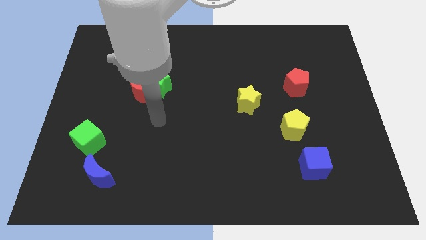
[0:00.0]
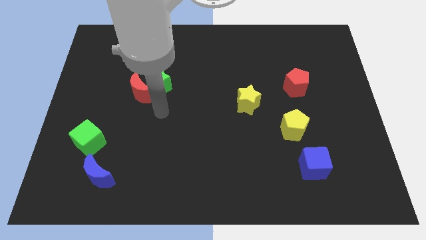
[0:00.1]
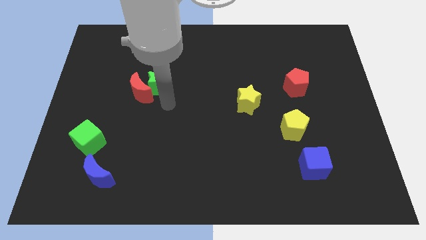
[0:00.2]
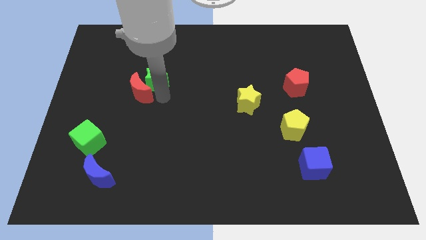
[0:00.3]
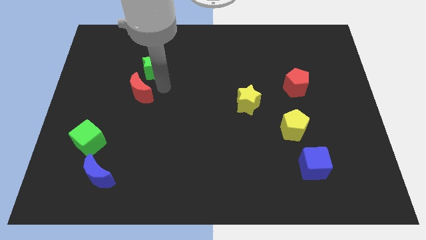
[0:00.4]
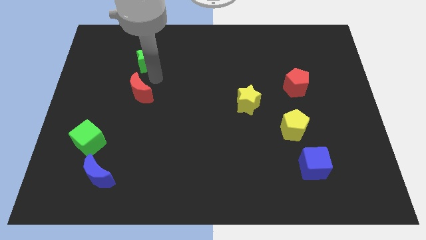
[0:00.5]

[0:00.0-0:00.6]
separate the red moon from the green star

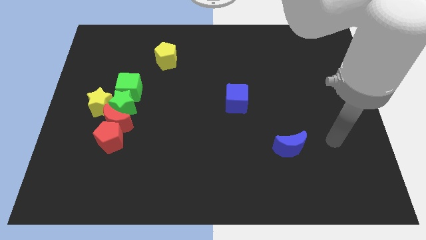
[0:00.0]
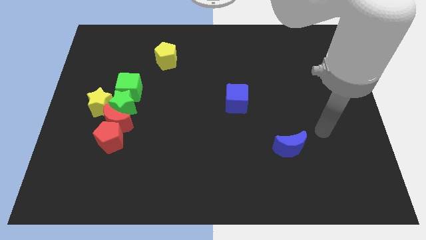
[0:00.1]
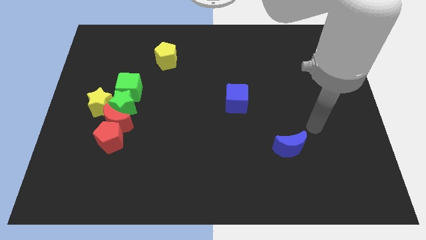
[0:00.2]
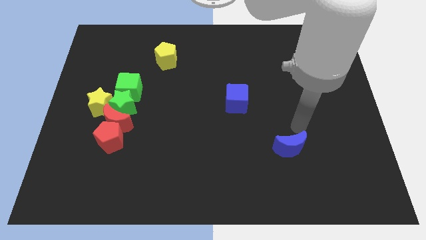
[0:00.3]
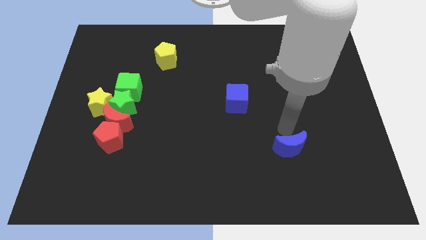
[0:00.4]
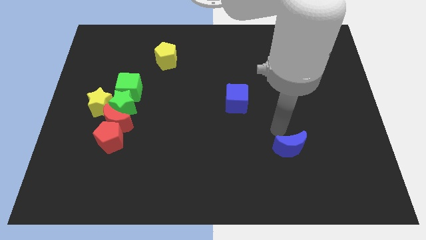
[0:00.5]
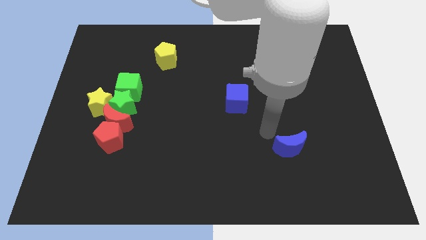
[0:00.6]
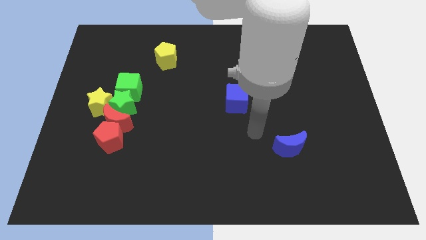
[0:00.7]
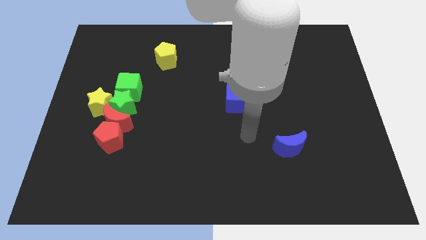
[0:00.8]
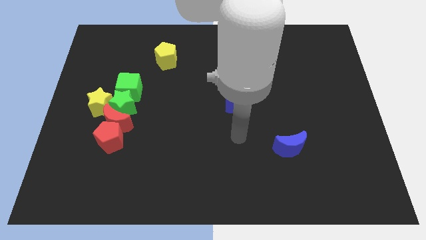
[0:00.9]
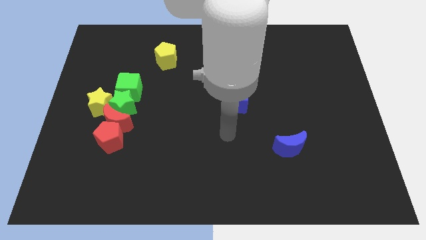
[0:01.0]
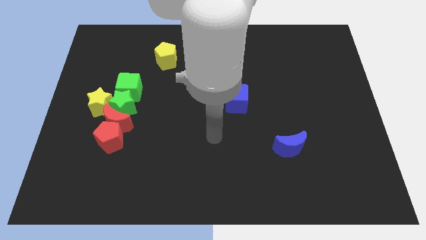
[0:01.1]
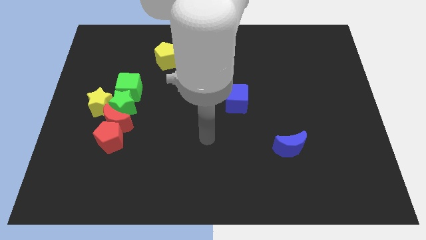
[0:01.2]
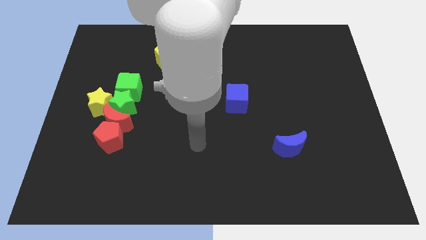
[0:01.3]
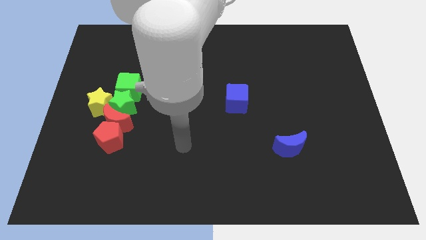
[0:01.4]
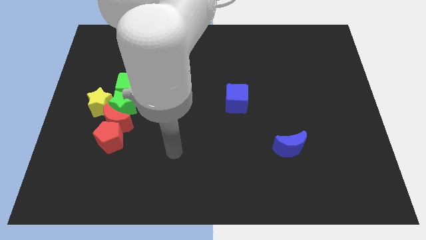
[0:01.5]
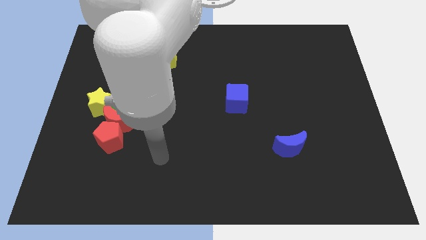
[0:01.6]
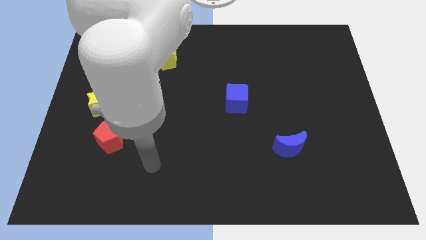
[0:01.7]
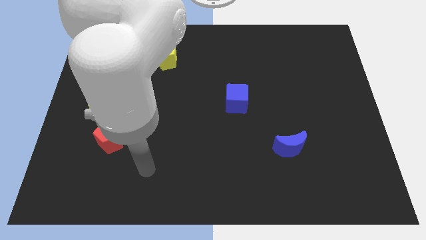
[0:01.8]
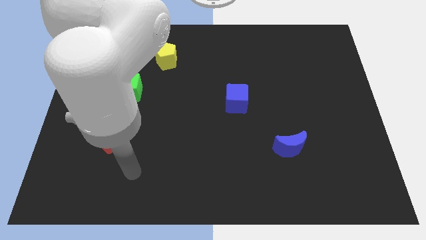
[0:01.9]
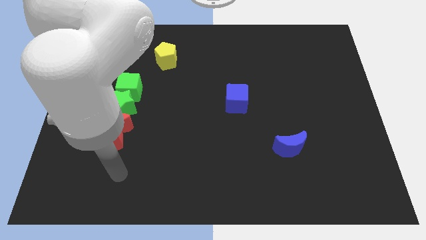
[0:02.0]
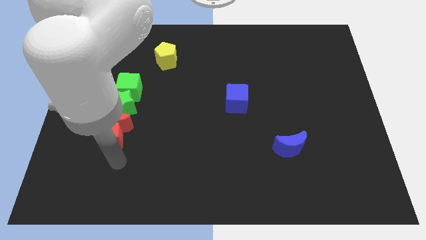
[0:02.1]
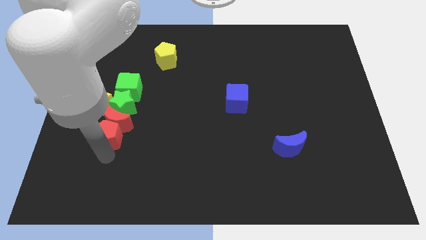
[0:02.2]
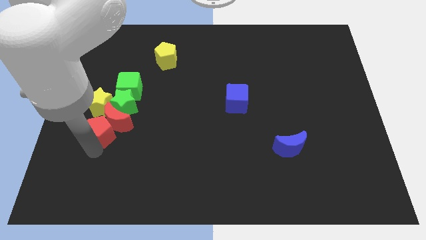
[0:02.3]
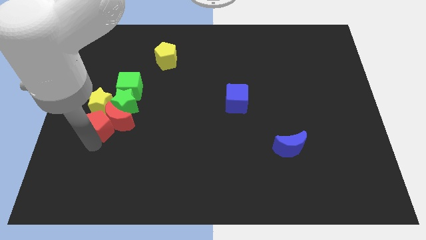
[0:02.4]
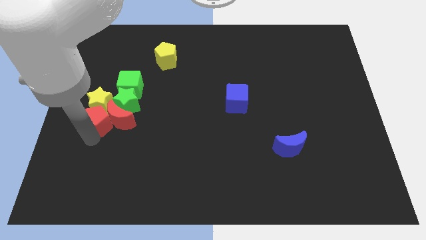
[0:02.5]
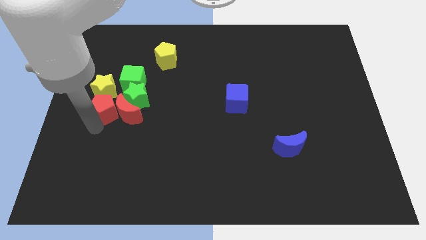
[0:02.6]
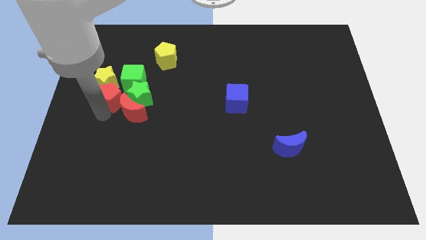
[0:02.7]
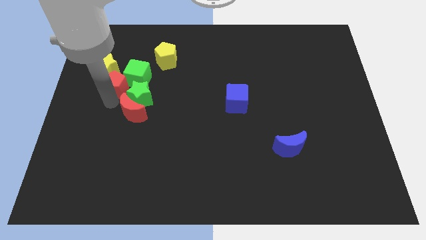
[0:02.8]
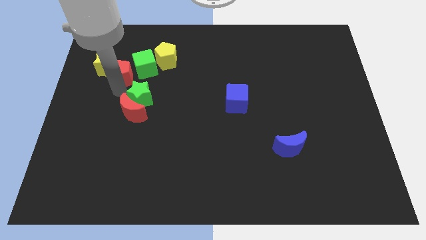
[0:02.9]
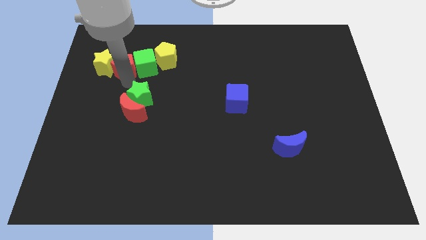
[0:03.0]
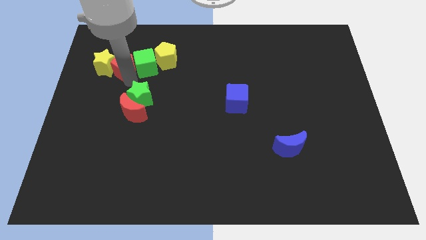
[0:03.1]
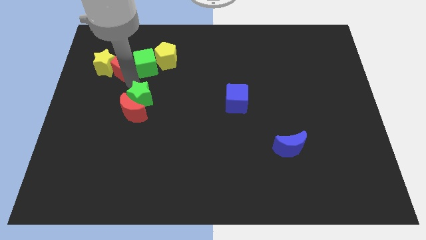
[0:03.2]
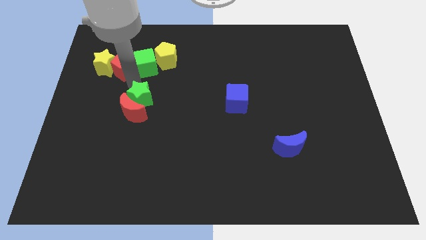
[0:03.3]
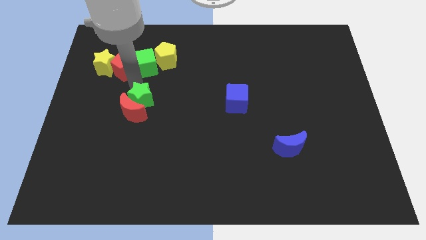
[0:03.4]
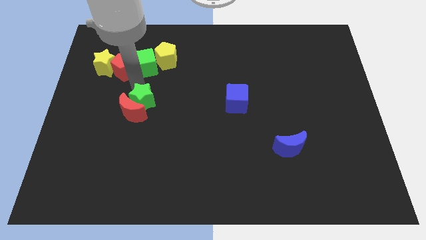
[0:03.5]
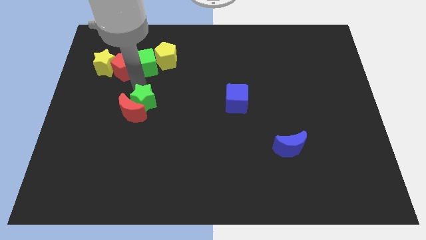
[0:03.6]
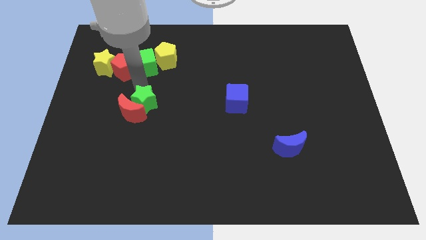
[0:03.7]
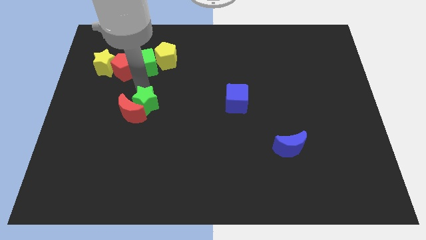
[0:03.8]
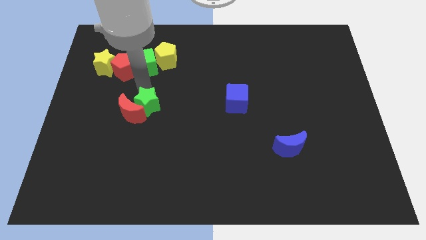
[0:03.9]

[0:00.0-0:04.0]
move the green star away from the group of blocks

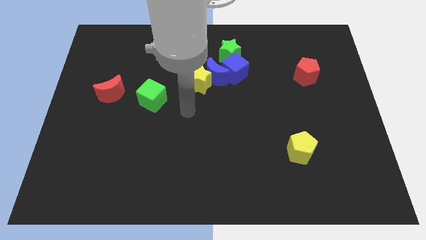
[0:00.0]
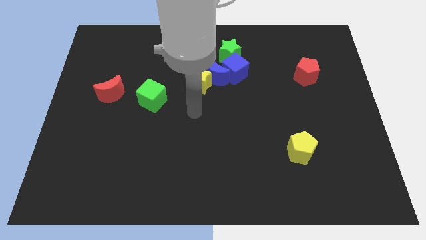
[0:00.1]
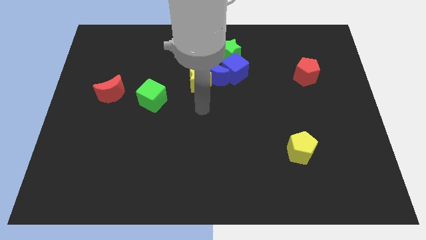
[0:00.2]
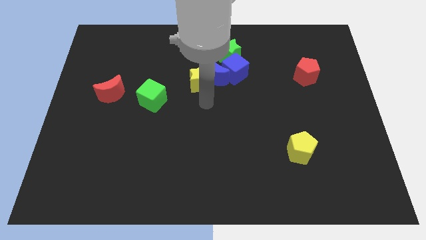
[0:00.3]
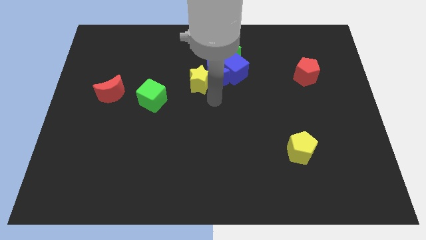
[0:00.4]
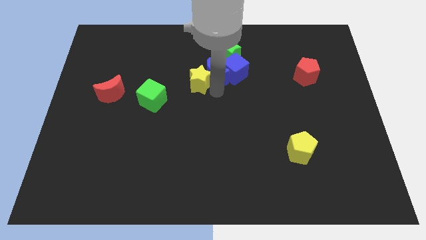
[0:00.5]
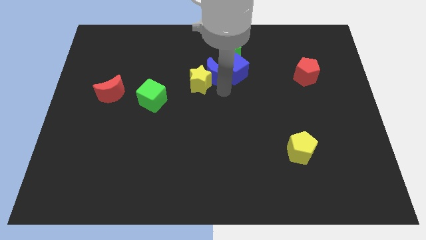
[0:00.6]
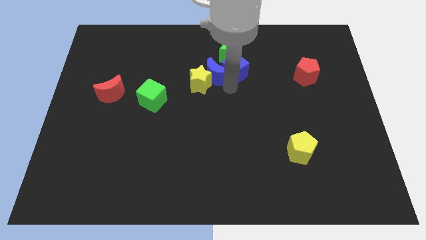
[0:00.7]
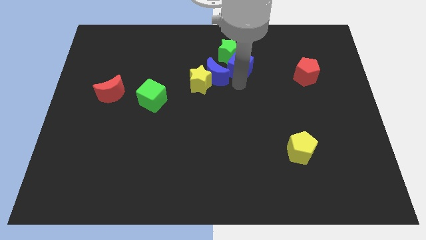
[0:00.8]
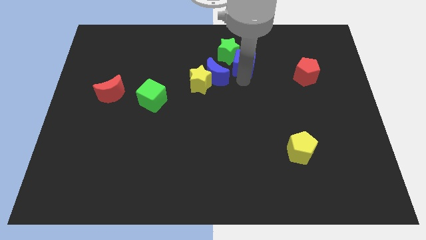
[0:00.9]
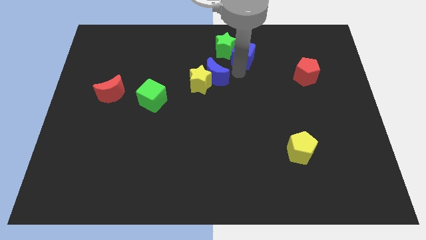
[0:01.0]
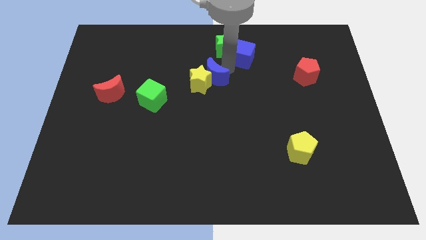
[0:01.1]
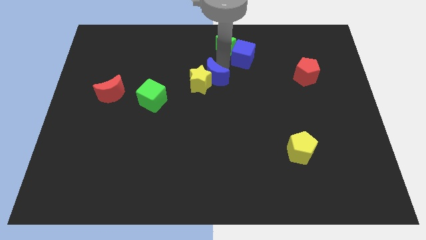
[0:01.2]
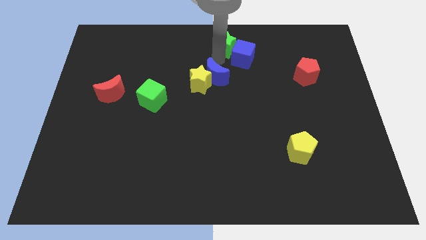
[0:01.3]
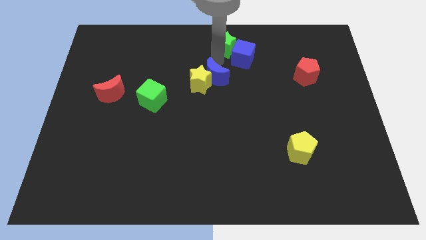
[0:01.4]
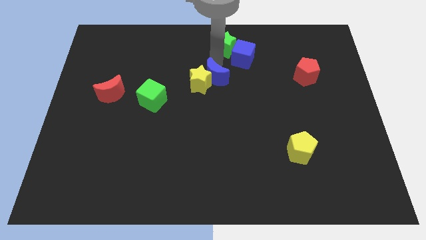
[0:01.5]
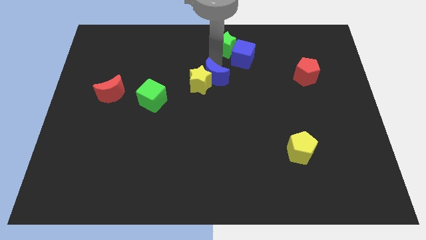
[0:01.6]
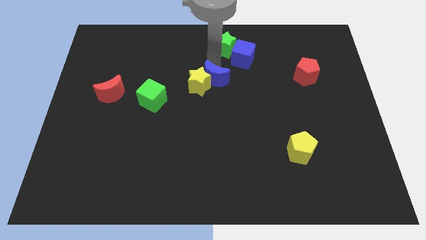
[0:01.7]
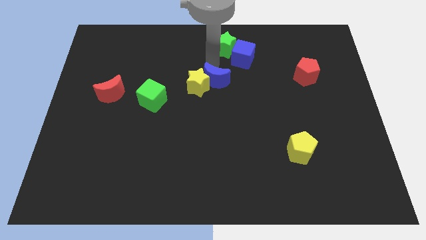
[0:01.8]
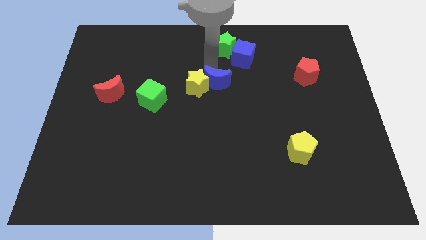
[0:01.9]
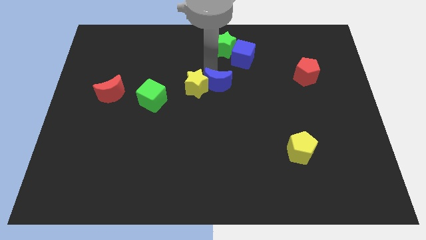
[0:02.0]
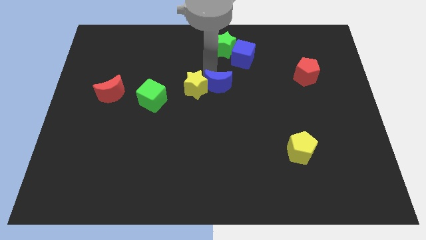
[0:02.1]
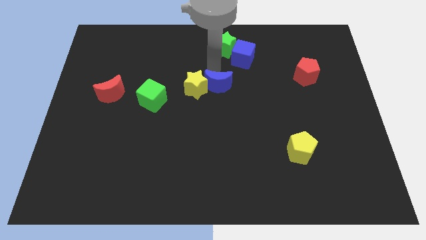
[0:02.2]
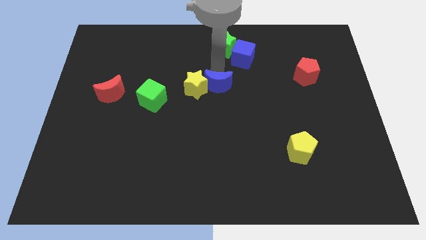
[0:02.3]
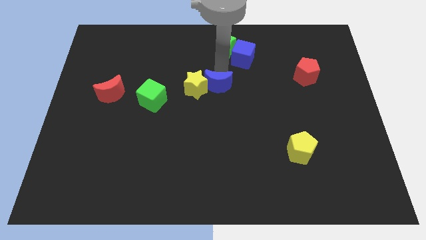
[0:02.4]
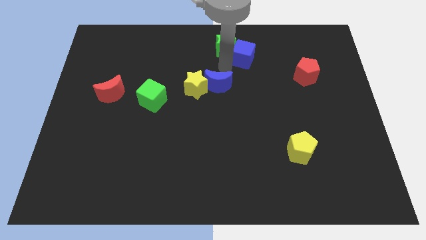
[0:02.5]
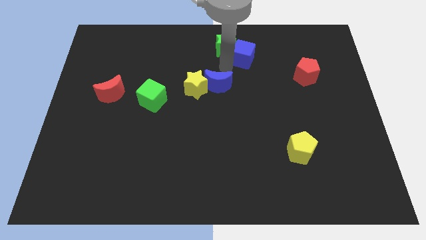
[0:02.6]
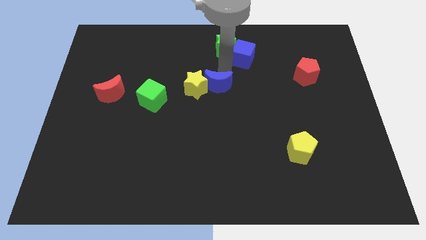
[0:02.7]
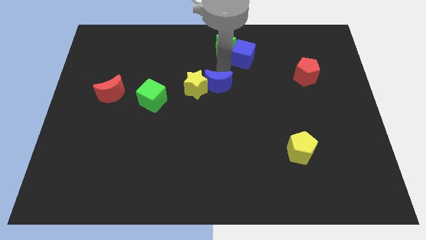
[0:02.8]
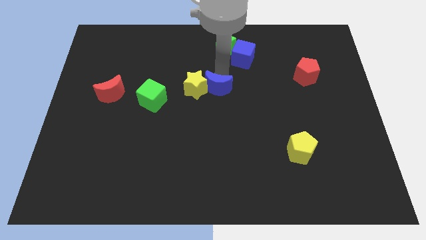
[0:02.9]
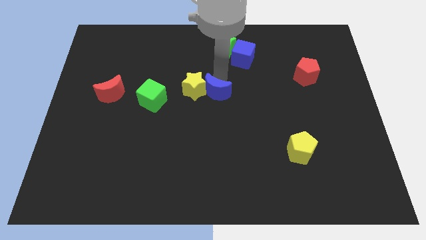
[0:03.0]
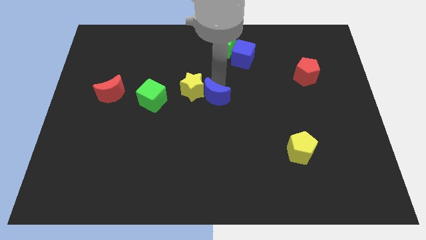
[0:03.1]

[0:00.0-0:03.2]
move the blue moon away from the yellow star, blue cube, and green star

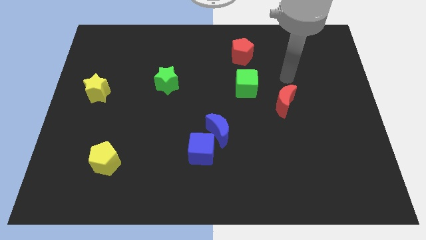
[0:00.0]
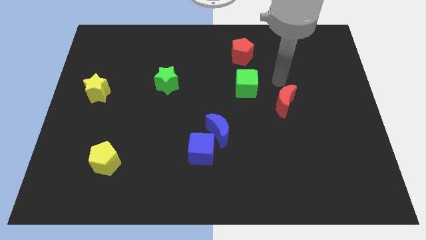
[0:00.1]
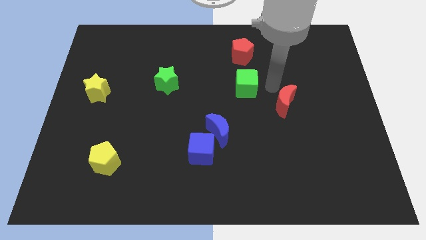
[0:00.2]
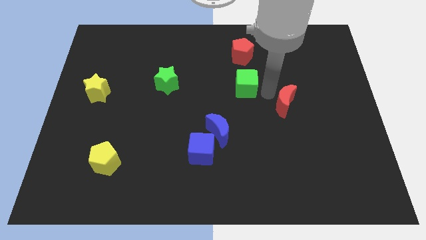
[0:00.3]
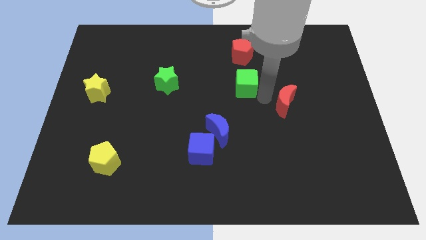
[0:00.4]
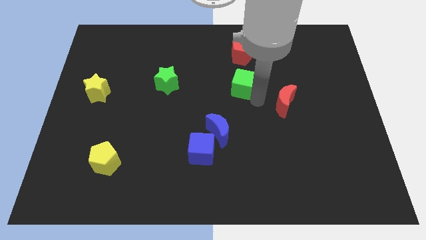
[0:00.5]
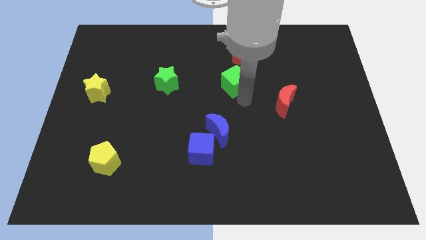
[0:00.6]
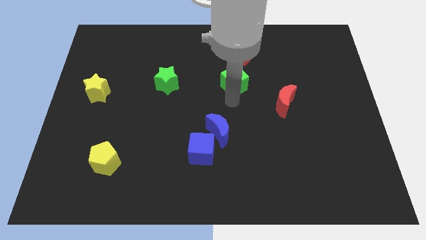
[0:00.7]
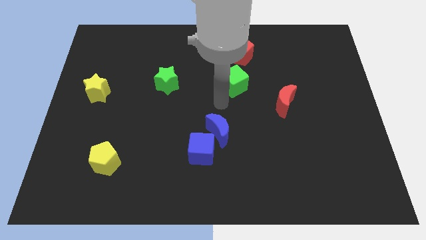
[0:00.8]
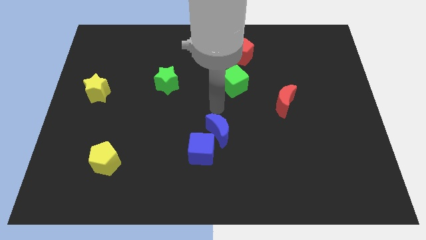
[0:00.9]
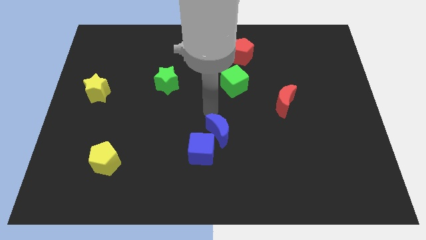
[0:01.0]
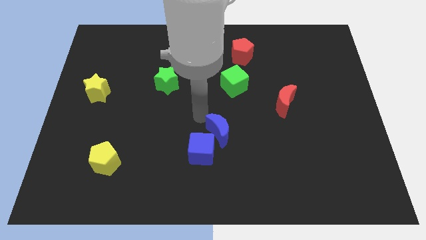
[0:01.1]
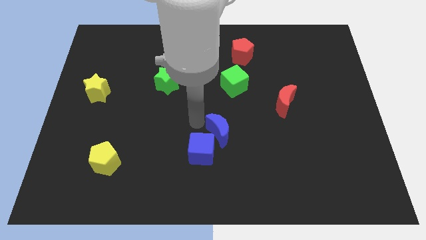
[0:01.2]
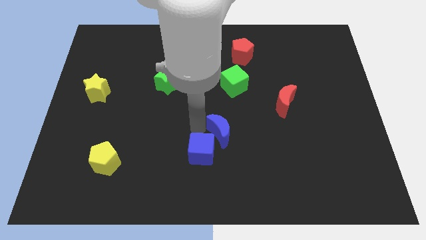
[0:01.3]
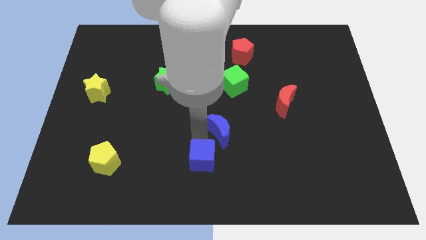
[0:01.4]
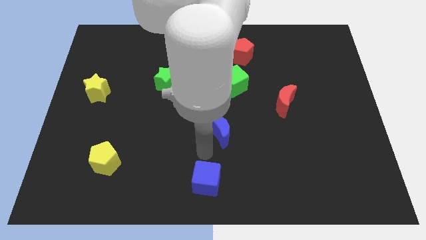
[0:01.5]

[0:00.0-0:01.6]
move the blue moon away from the blue cube
